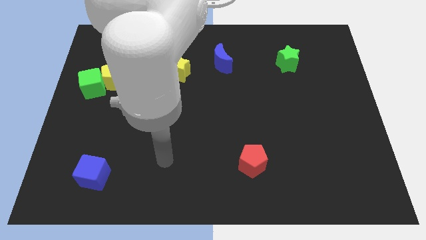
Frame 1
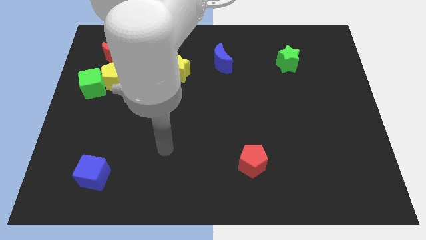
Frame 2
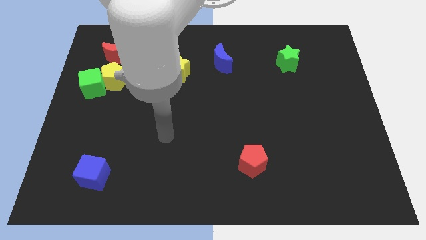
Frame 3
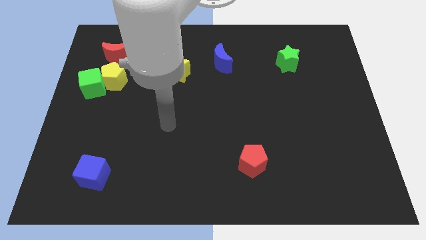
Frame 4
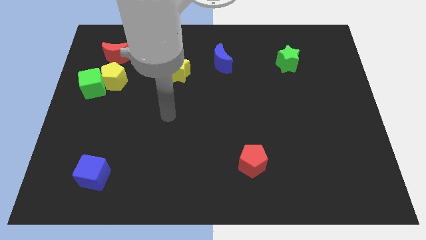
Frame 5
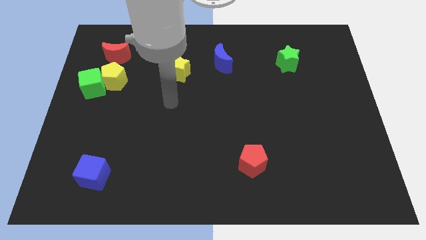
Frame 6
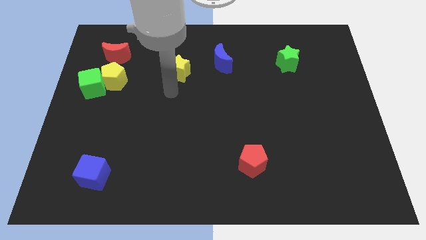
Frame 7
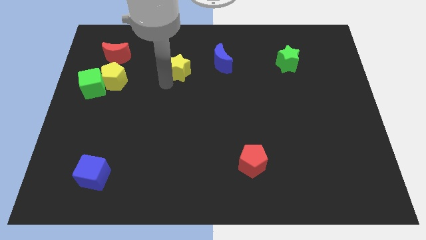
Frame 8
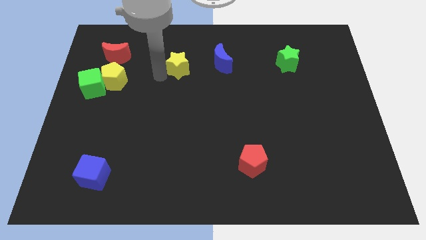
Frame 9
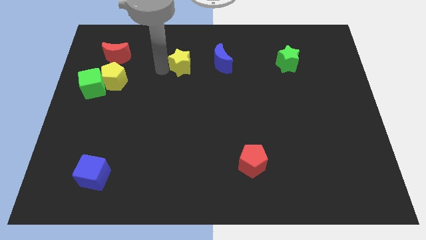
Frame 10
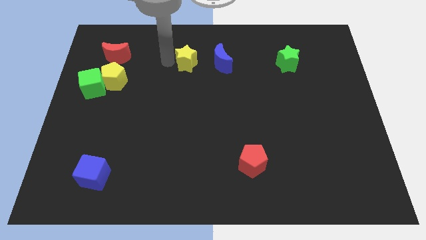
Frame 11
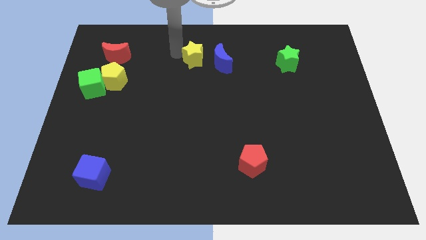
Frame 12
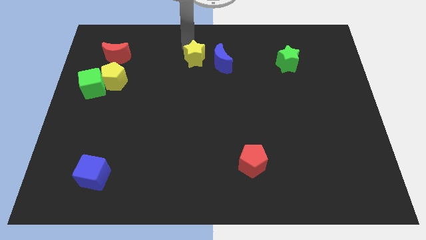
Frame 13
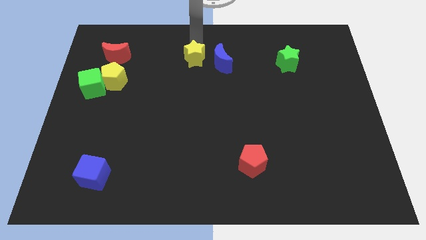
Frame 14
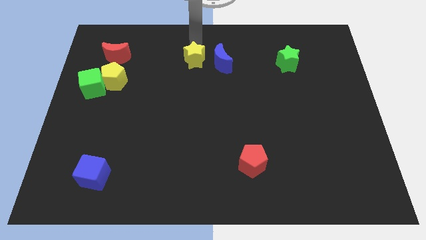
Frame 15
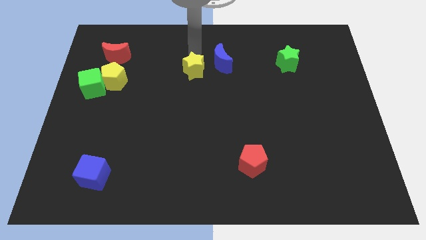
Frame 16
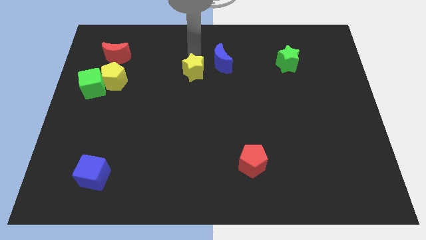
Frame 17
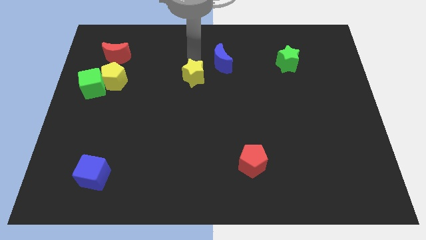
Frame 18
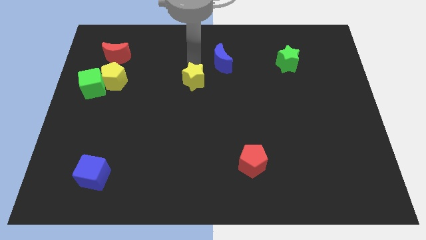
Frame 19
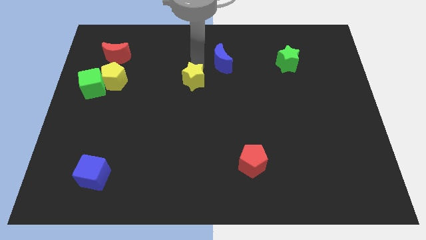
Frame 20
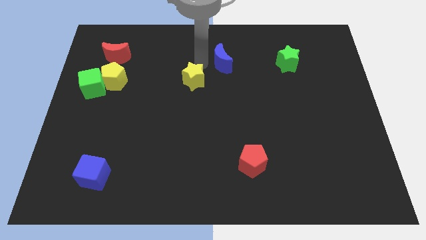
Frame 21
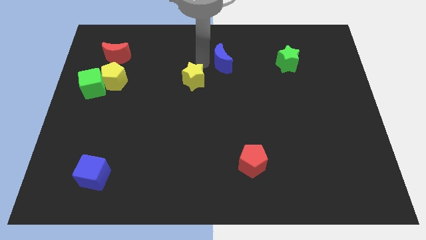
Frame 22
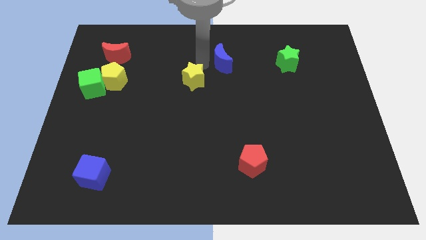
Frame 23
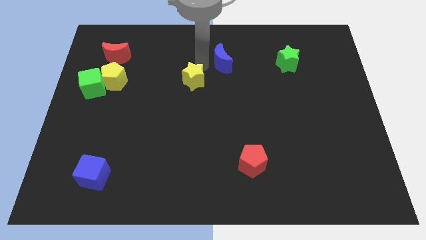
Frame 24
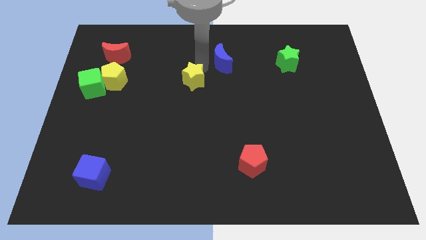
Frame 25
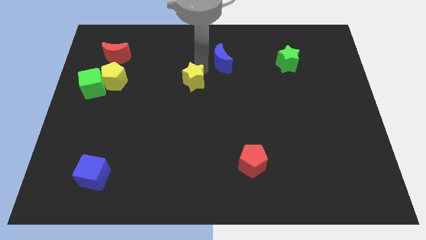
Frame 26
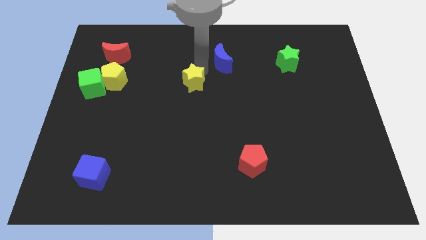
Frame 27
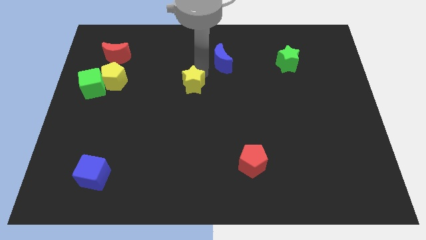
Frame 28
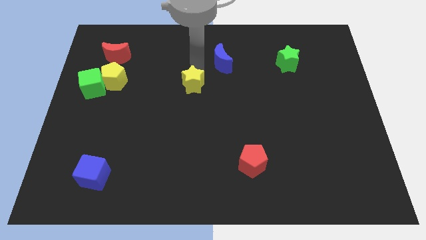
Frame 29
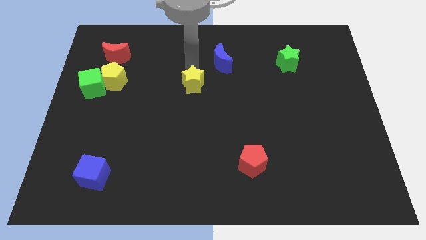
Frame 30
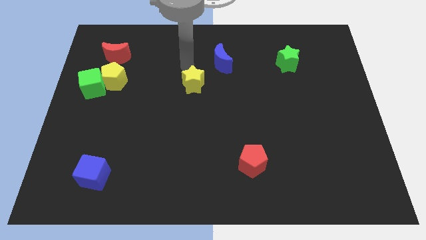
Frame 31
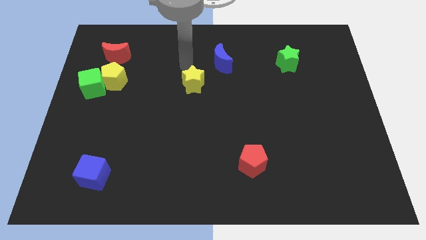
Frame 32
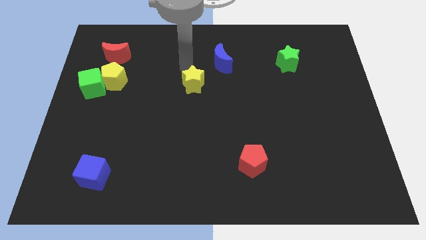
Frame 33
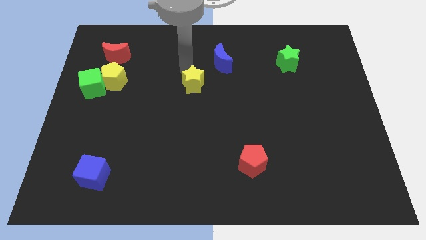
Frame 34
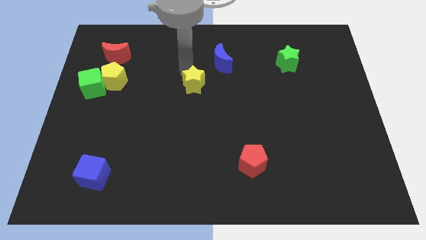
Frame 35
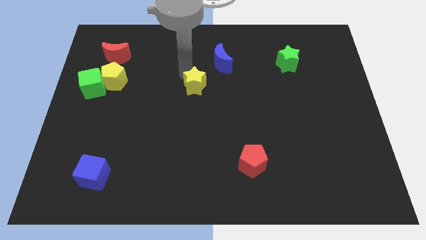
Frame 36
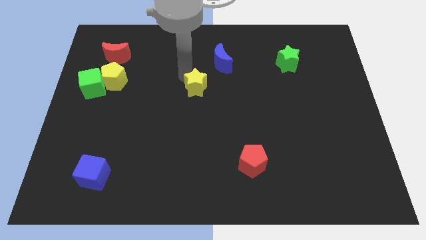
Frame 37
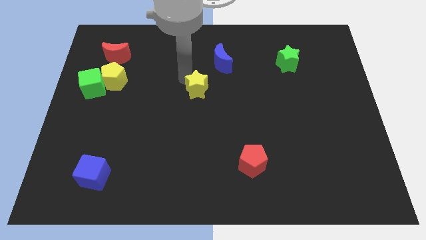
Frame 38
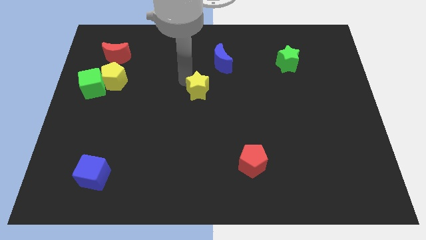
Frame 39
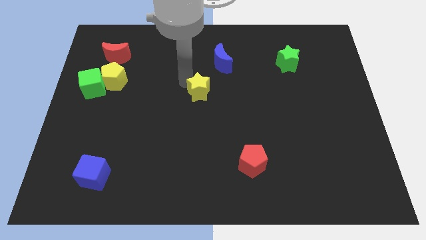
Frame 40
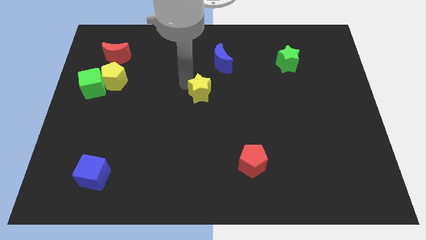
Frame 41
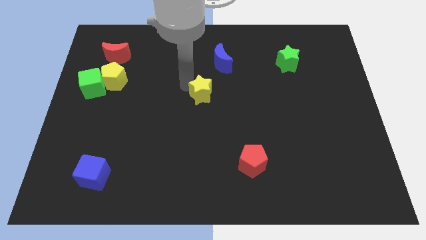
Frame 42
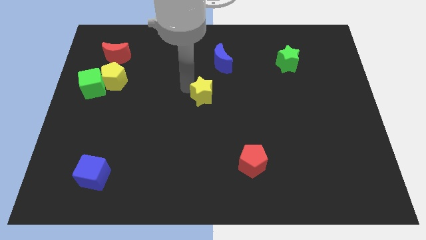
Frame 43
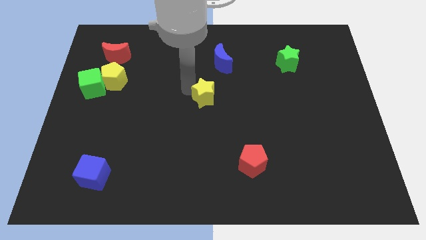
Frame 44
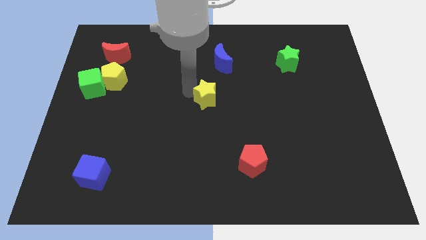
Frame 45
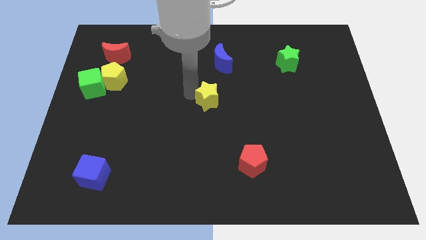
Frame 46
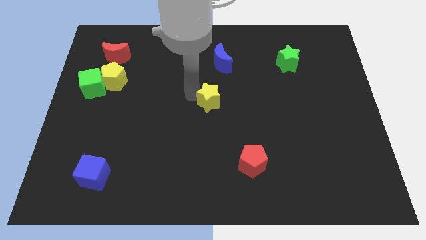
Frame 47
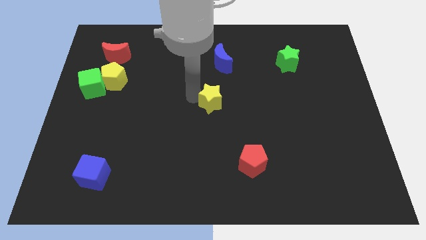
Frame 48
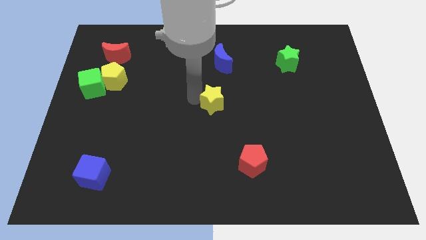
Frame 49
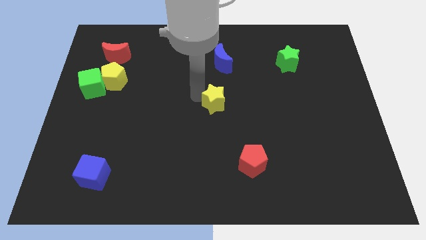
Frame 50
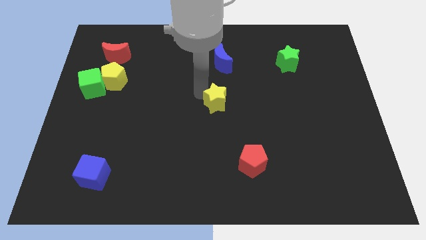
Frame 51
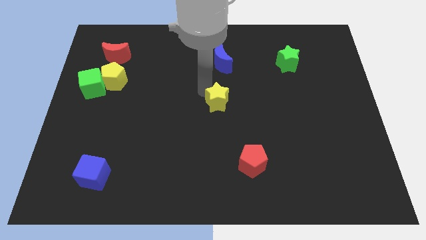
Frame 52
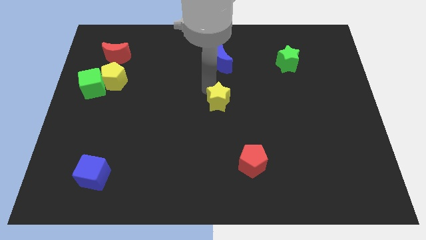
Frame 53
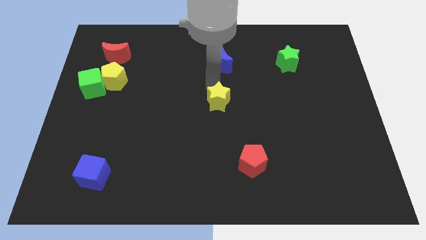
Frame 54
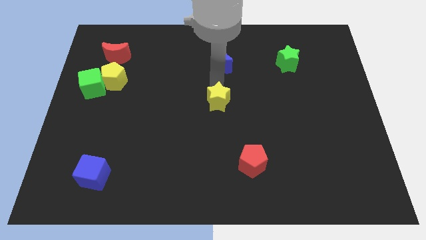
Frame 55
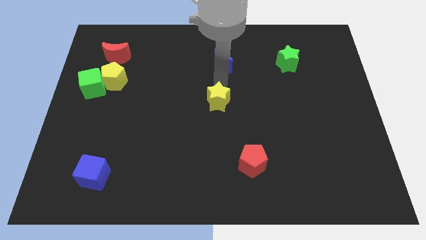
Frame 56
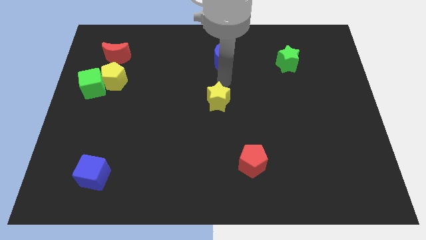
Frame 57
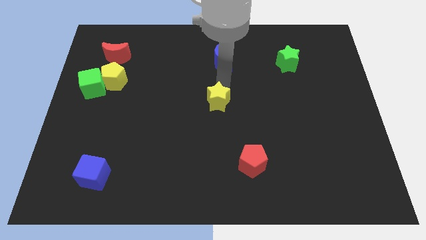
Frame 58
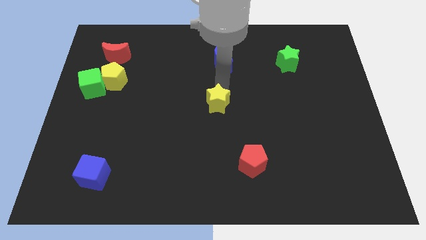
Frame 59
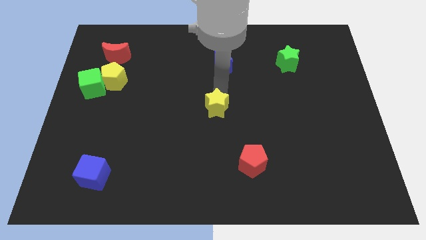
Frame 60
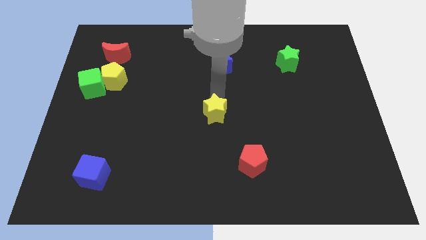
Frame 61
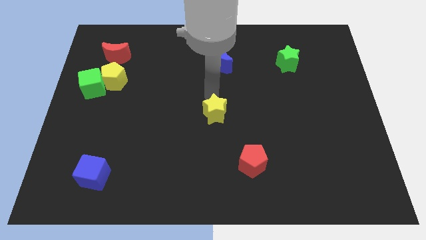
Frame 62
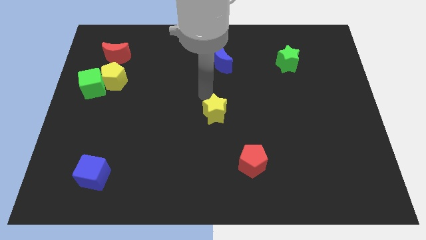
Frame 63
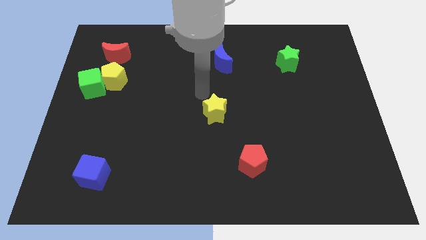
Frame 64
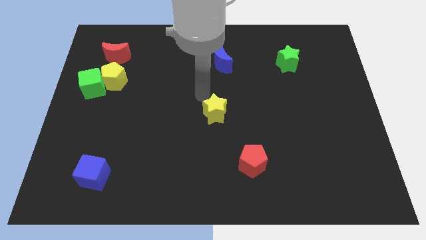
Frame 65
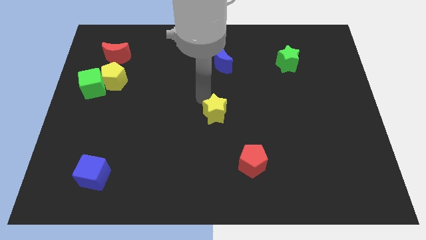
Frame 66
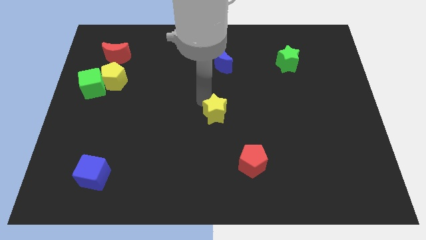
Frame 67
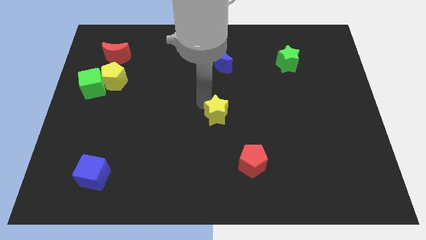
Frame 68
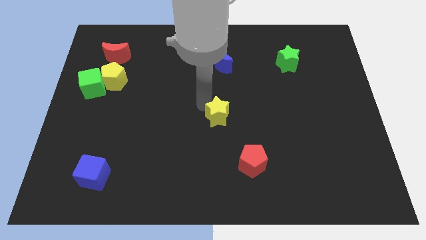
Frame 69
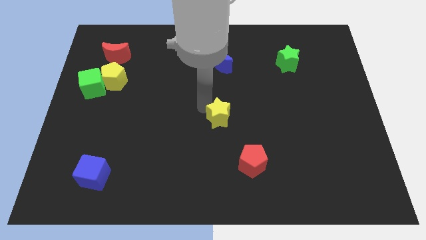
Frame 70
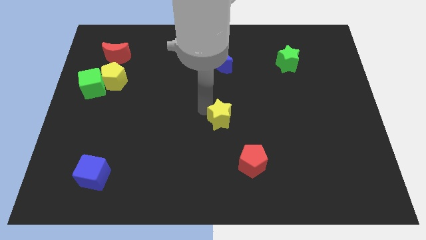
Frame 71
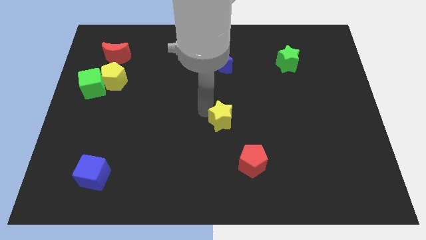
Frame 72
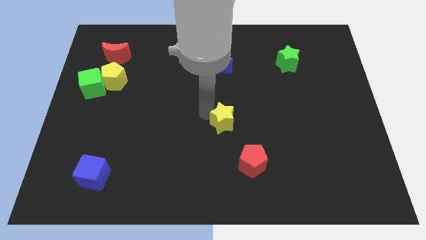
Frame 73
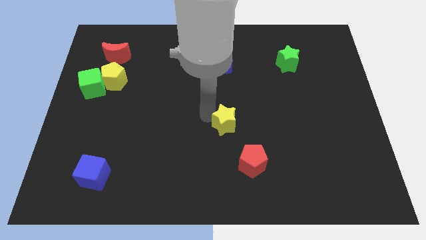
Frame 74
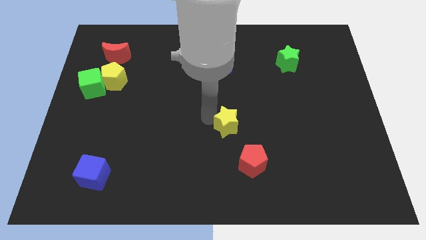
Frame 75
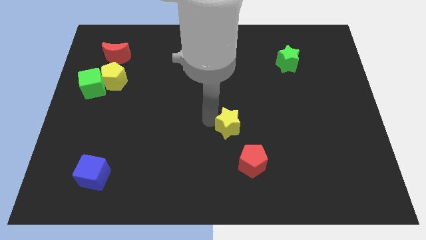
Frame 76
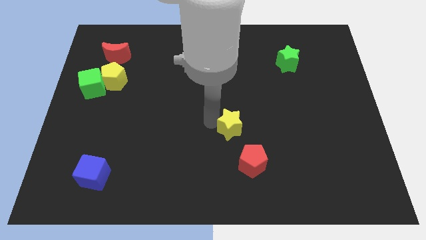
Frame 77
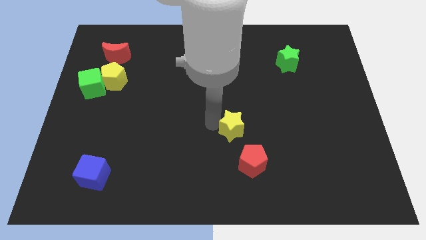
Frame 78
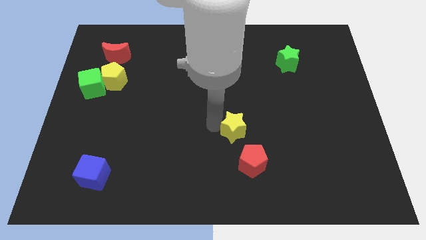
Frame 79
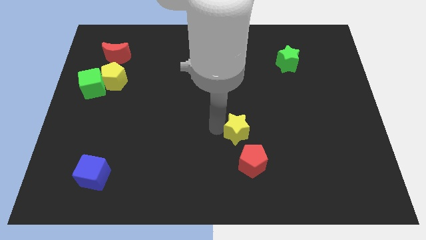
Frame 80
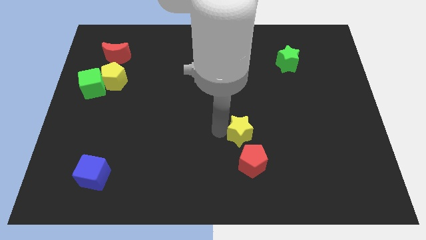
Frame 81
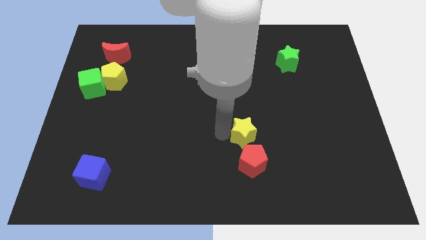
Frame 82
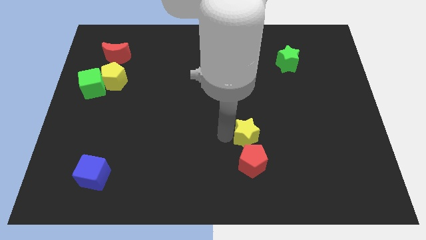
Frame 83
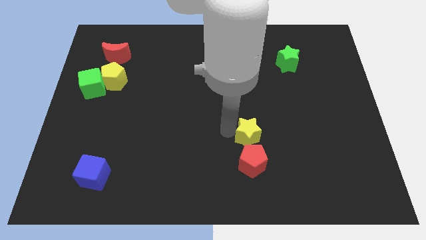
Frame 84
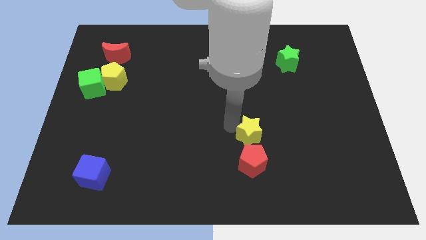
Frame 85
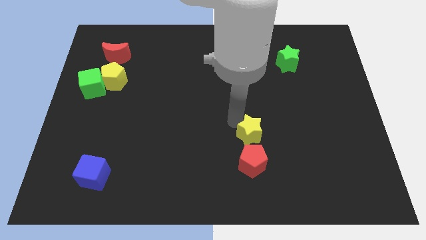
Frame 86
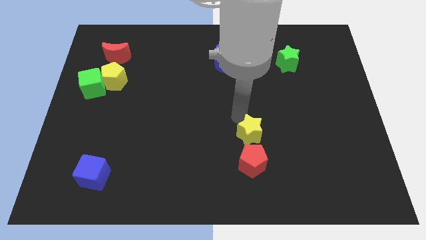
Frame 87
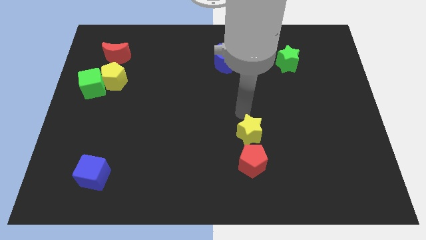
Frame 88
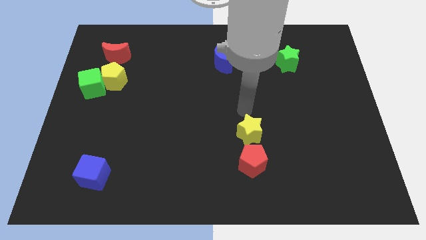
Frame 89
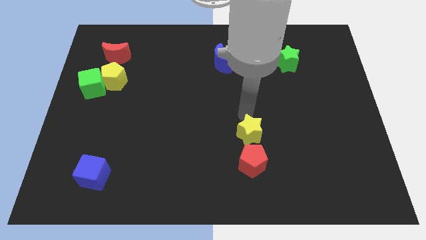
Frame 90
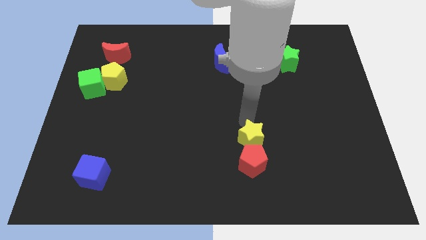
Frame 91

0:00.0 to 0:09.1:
put the yellow star towards the red pentagon
